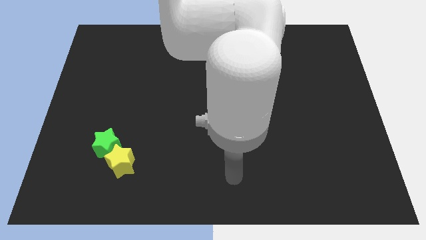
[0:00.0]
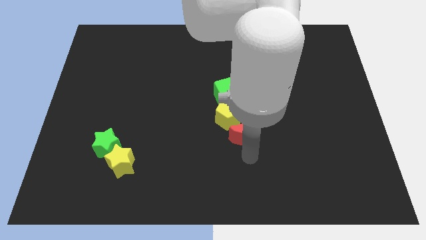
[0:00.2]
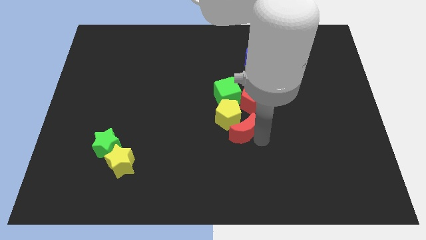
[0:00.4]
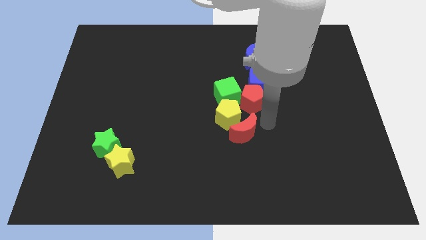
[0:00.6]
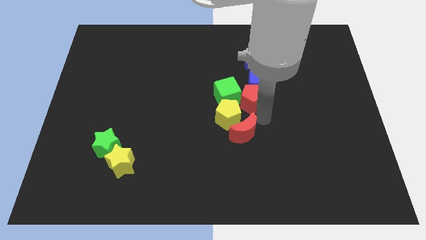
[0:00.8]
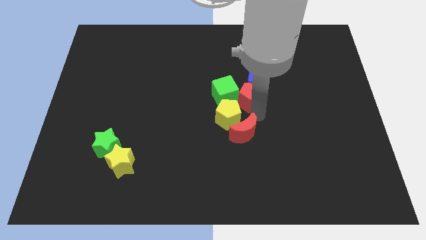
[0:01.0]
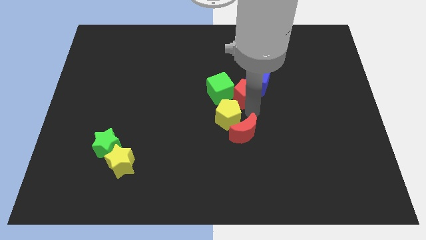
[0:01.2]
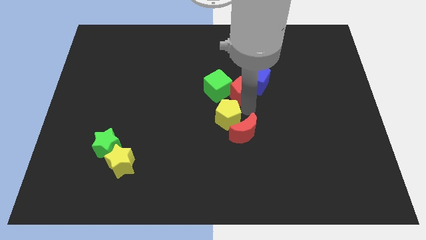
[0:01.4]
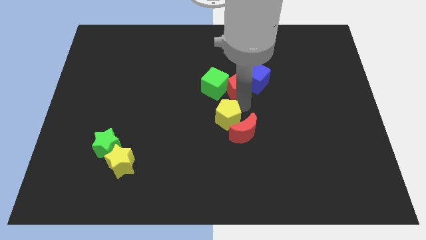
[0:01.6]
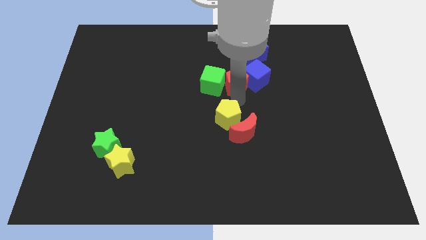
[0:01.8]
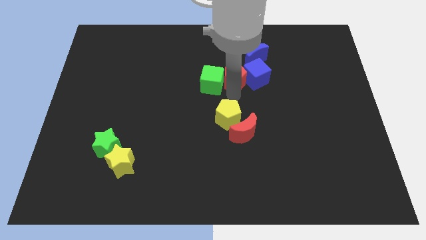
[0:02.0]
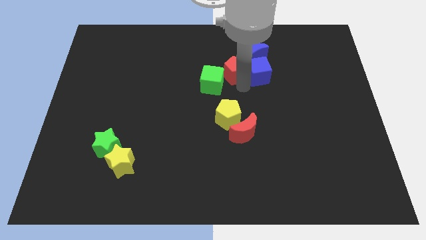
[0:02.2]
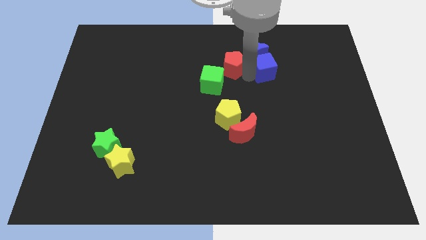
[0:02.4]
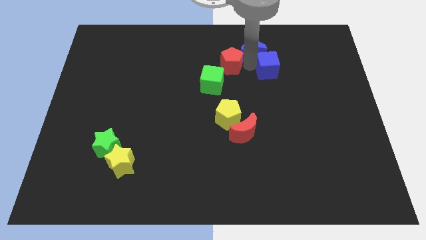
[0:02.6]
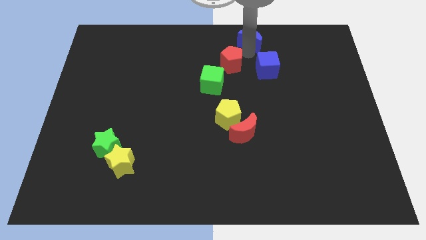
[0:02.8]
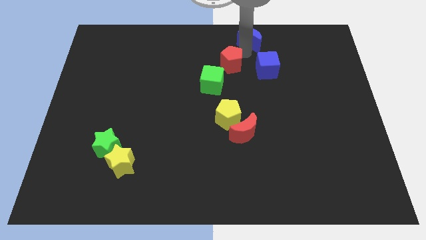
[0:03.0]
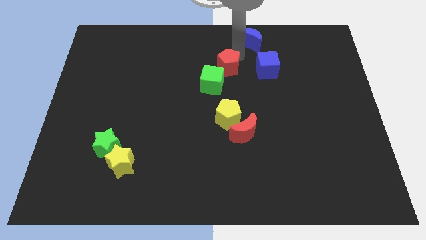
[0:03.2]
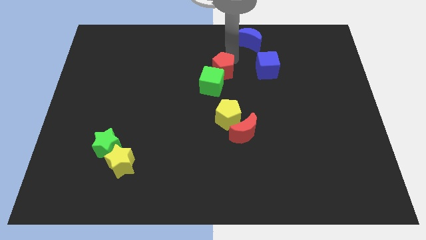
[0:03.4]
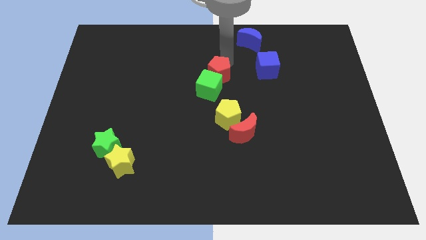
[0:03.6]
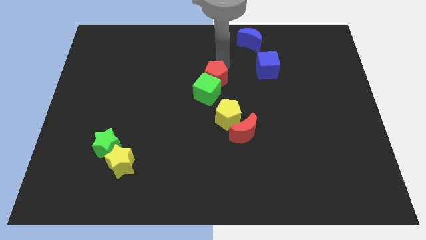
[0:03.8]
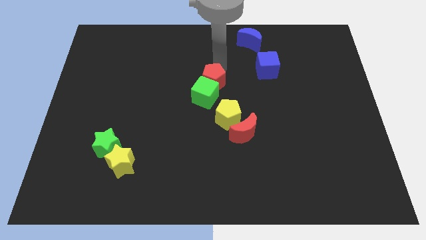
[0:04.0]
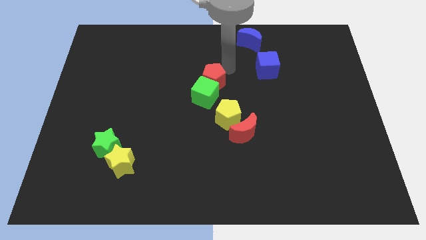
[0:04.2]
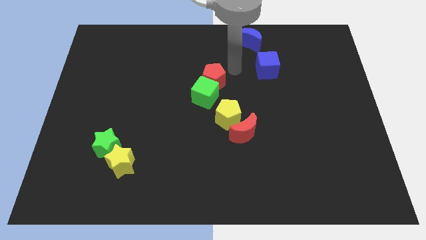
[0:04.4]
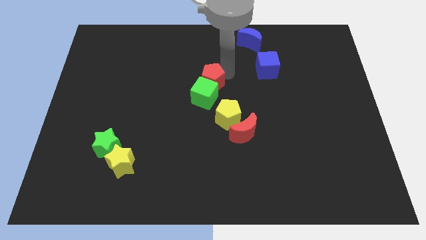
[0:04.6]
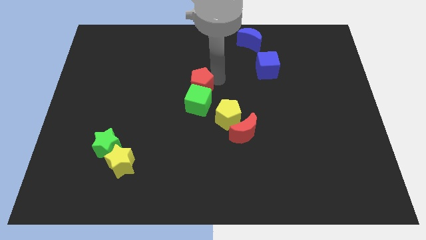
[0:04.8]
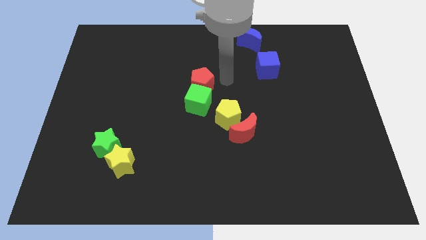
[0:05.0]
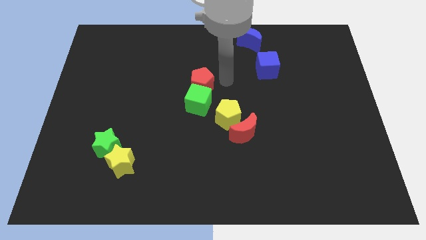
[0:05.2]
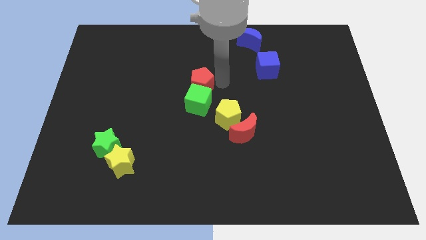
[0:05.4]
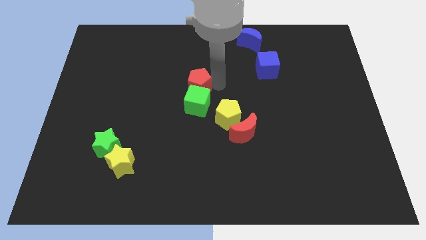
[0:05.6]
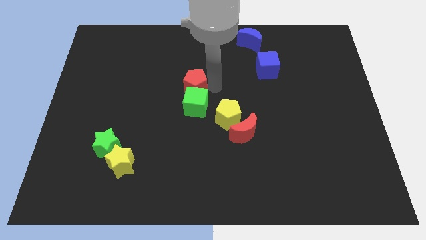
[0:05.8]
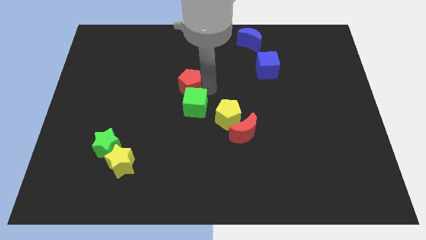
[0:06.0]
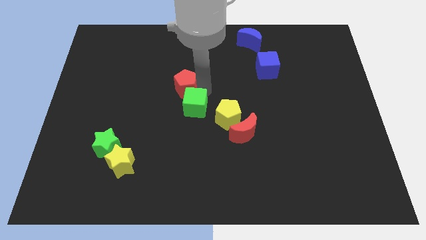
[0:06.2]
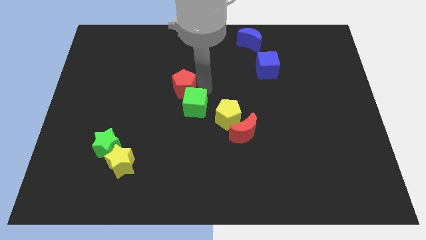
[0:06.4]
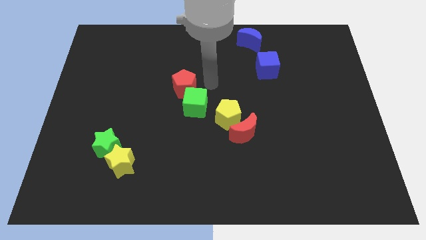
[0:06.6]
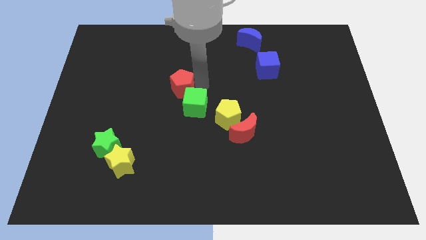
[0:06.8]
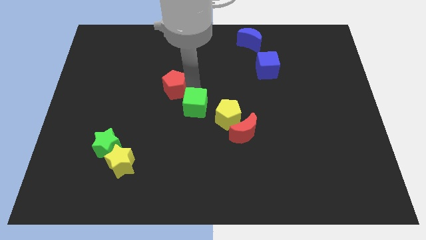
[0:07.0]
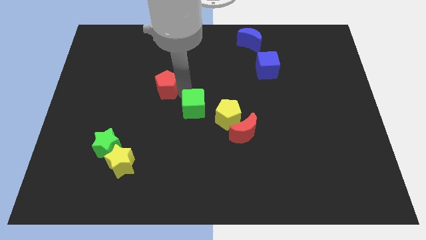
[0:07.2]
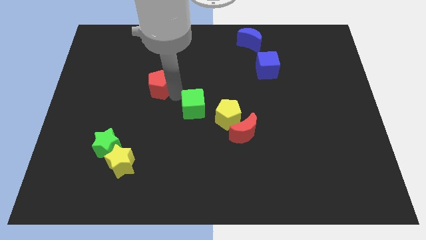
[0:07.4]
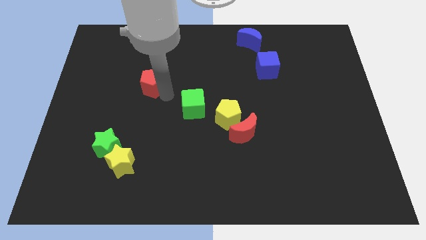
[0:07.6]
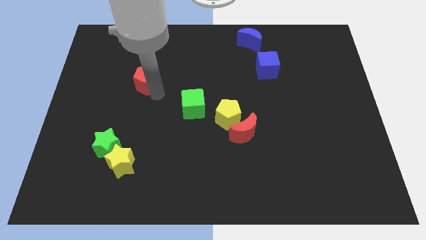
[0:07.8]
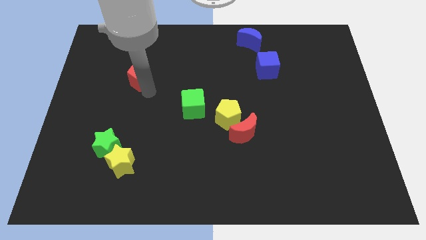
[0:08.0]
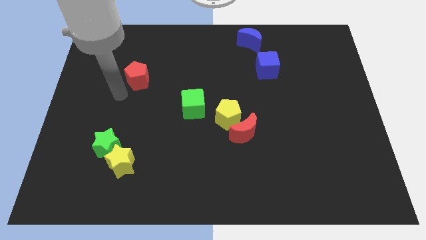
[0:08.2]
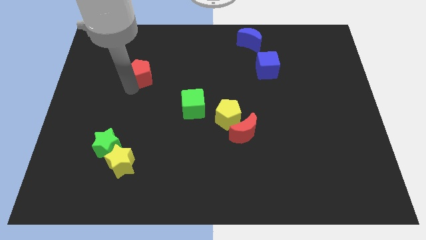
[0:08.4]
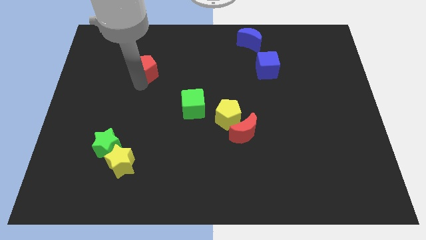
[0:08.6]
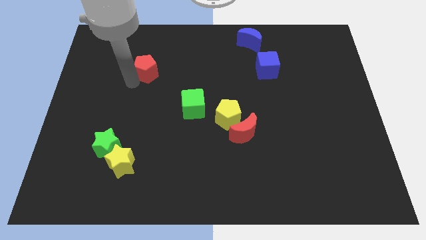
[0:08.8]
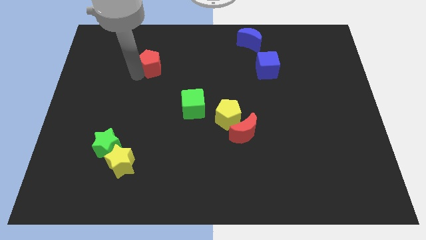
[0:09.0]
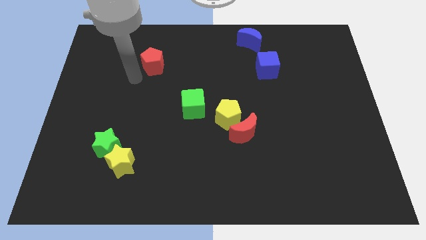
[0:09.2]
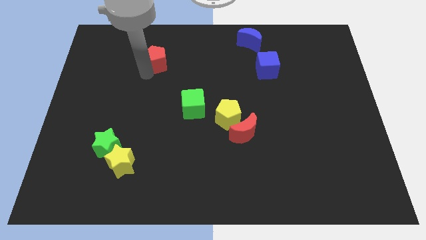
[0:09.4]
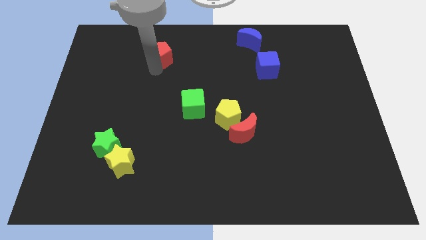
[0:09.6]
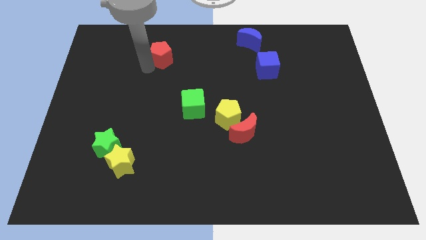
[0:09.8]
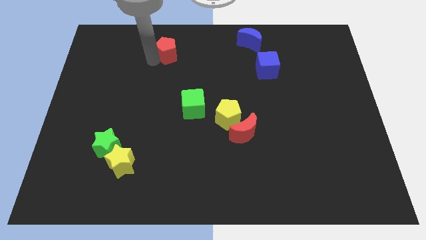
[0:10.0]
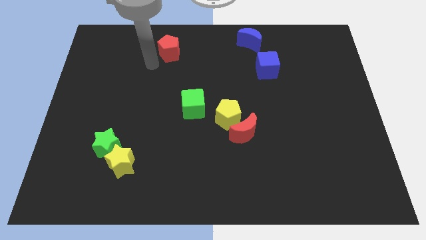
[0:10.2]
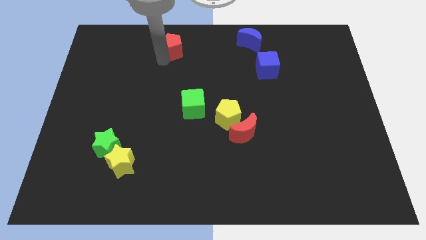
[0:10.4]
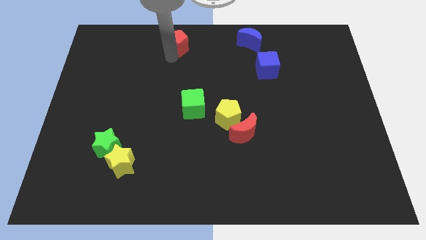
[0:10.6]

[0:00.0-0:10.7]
put the red pentagon to the top side

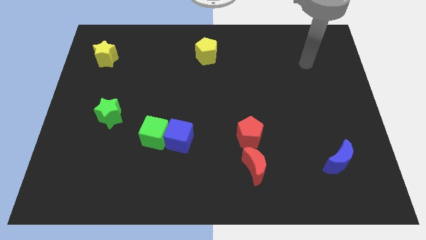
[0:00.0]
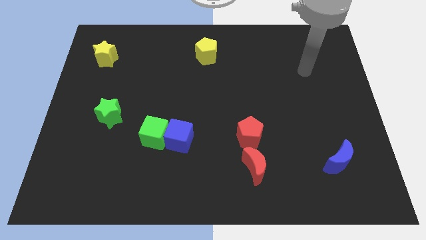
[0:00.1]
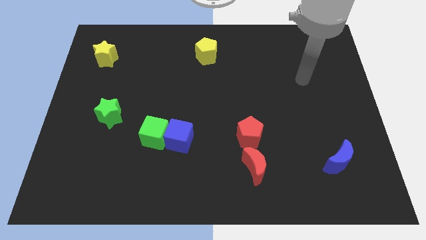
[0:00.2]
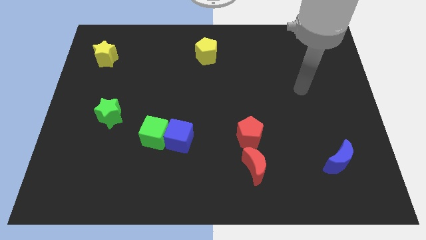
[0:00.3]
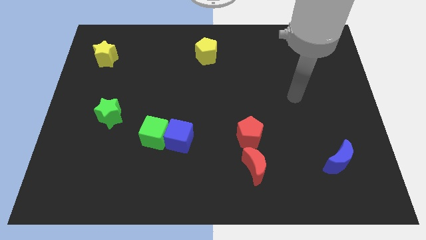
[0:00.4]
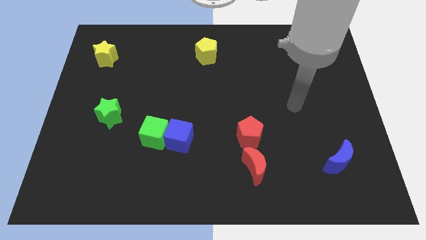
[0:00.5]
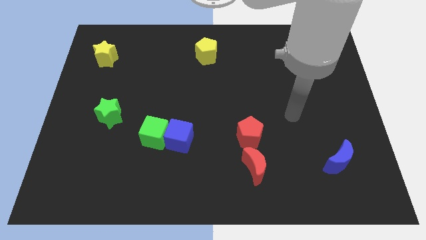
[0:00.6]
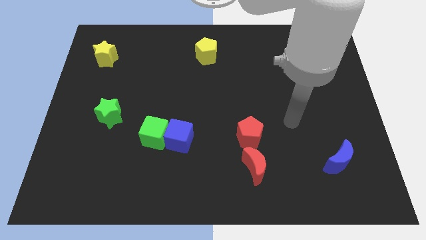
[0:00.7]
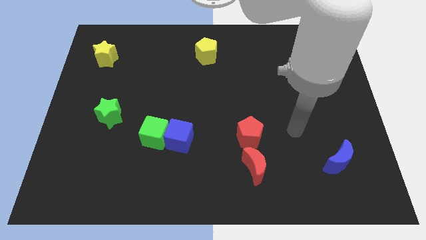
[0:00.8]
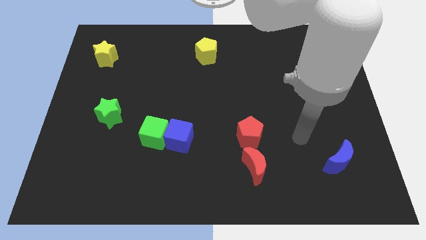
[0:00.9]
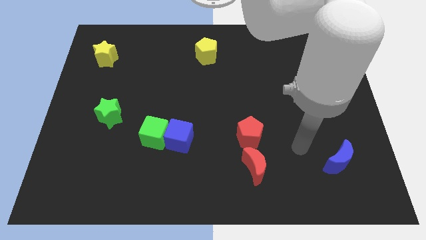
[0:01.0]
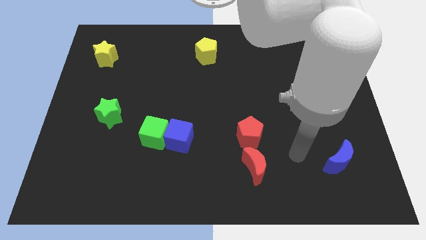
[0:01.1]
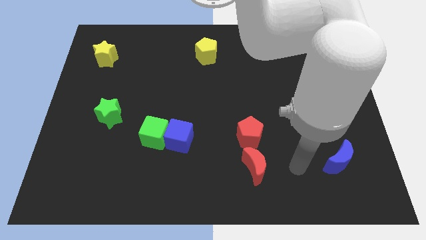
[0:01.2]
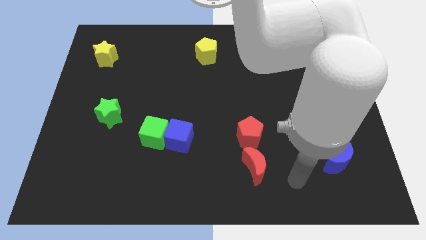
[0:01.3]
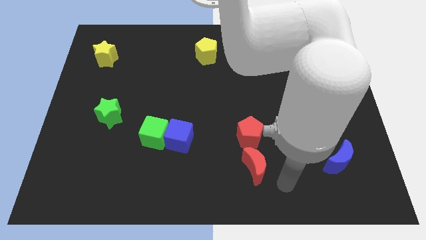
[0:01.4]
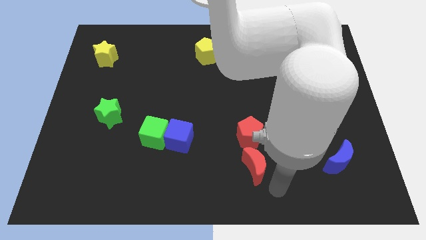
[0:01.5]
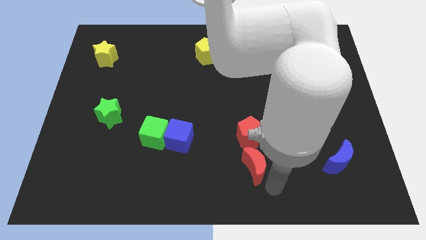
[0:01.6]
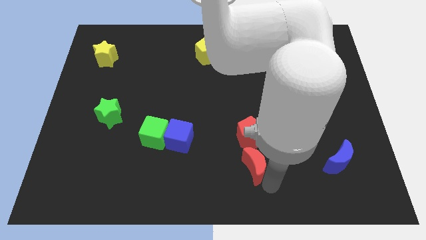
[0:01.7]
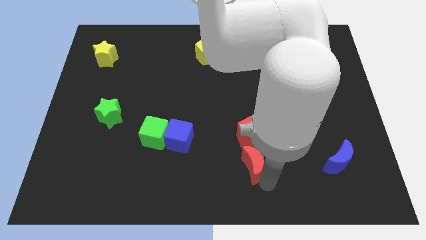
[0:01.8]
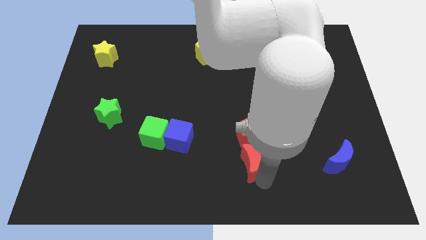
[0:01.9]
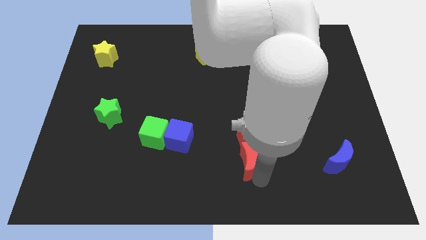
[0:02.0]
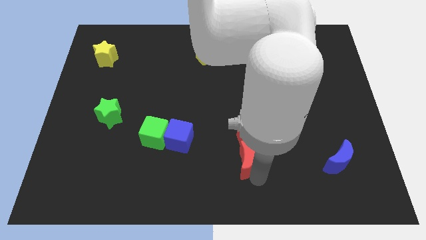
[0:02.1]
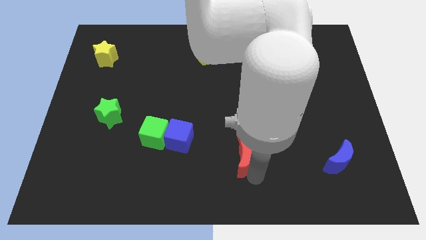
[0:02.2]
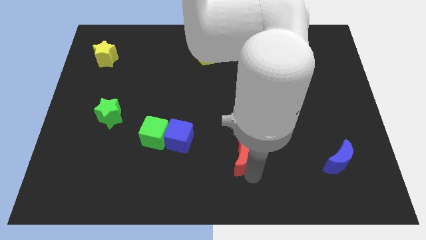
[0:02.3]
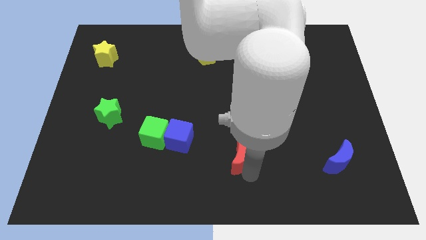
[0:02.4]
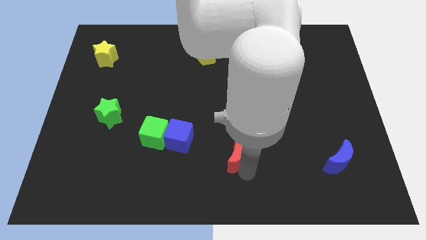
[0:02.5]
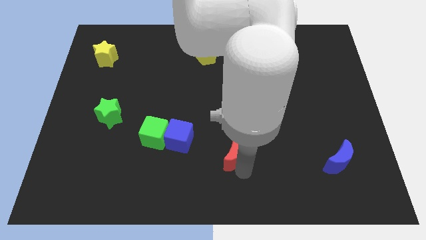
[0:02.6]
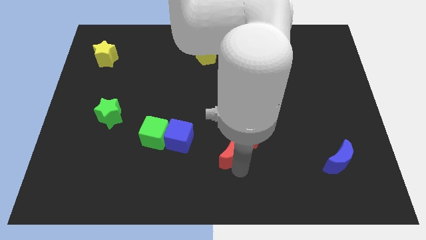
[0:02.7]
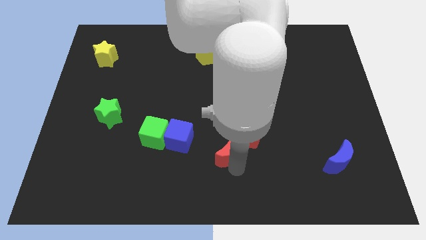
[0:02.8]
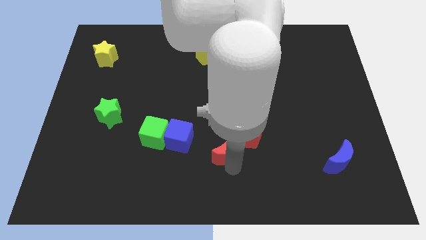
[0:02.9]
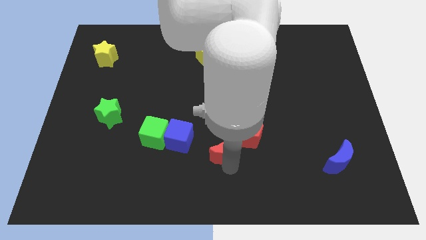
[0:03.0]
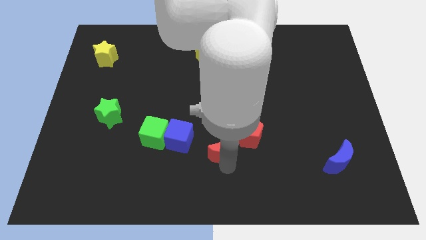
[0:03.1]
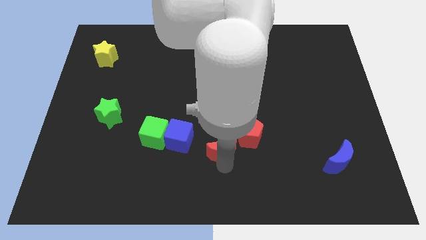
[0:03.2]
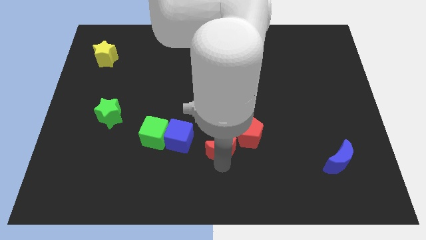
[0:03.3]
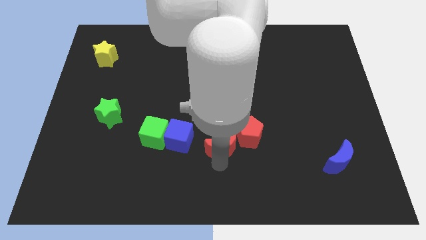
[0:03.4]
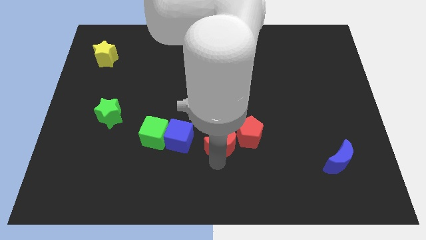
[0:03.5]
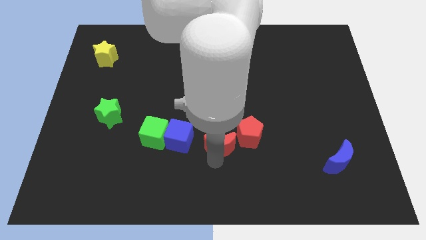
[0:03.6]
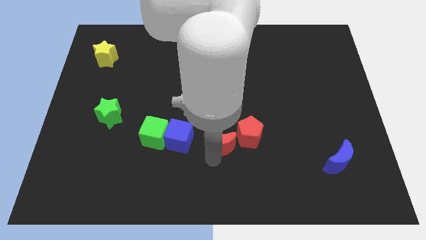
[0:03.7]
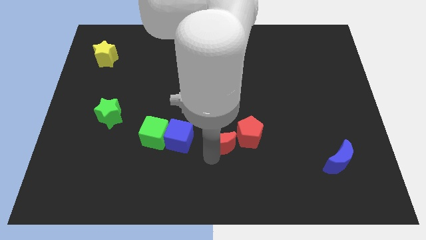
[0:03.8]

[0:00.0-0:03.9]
move the red moon to the center of the board
